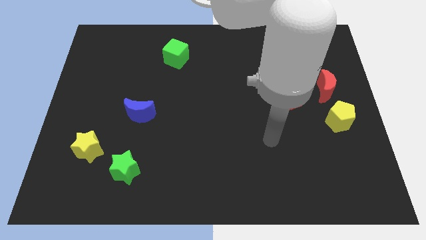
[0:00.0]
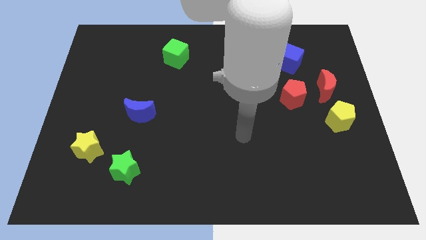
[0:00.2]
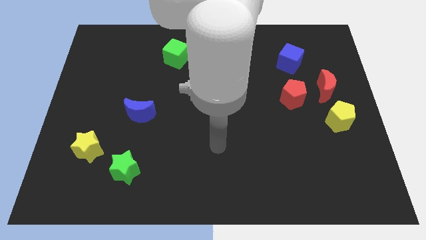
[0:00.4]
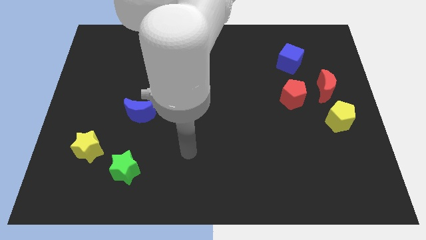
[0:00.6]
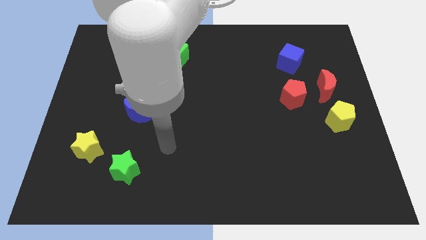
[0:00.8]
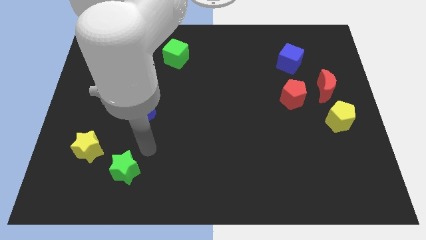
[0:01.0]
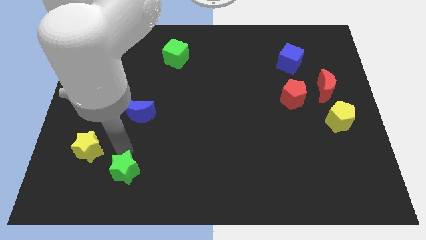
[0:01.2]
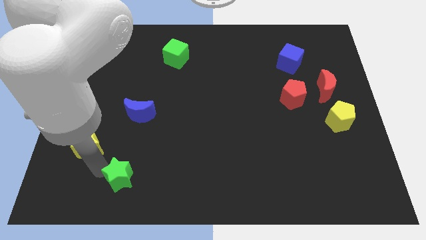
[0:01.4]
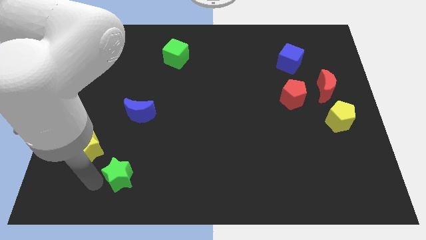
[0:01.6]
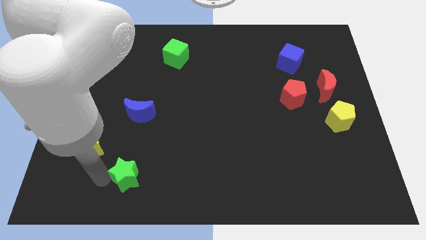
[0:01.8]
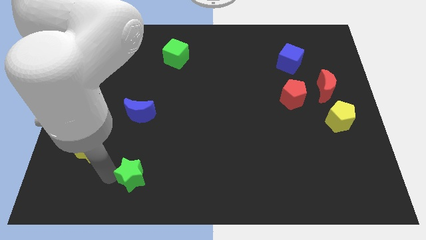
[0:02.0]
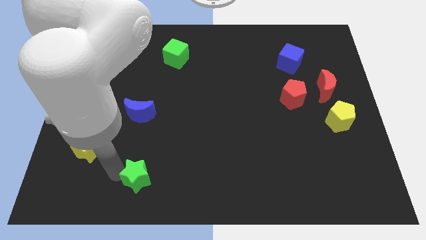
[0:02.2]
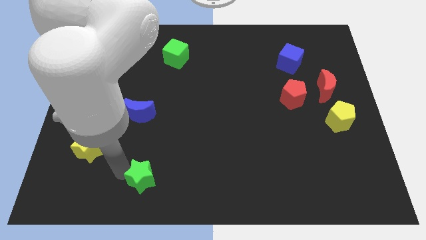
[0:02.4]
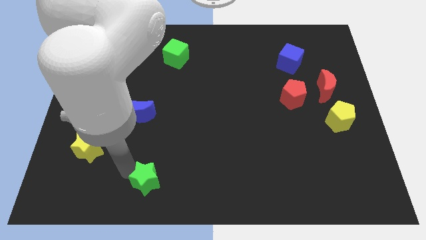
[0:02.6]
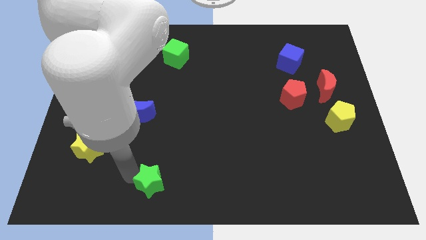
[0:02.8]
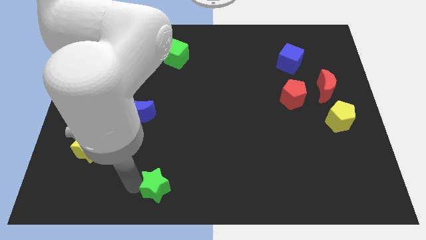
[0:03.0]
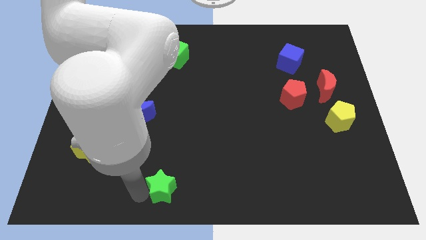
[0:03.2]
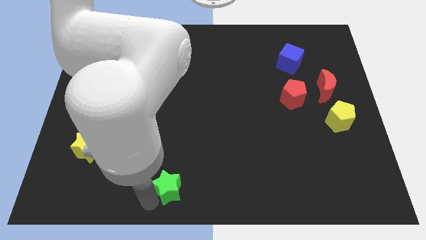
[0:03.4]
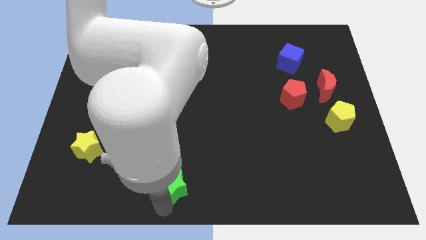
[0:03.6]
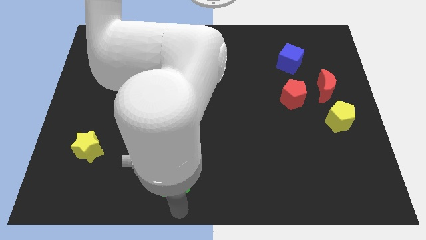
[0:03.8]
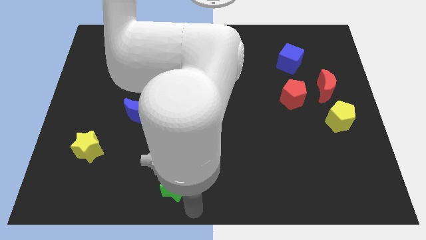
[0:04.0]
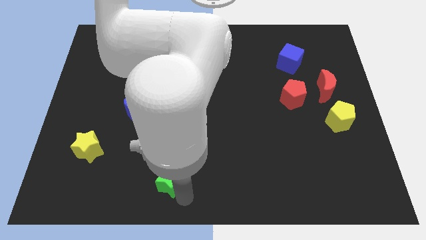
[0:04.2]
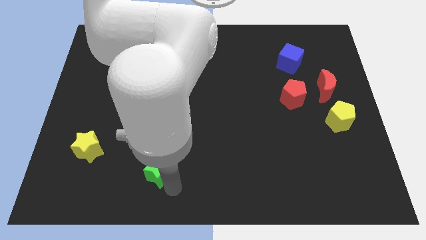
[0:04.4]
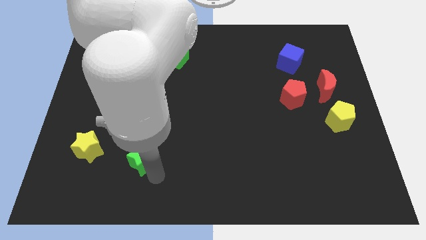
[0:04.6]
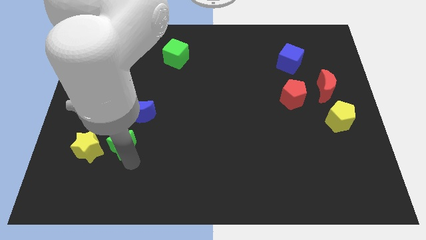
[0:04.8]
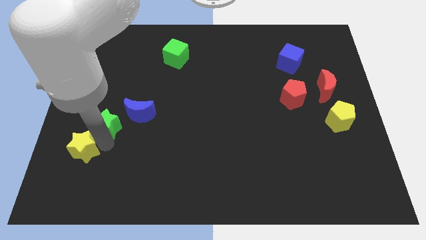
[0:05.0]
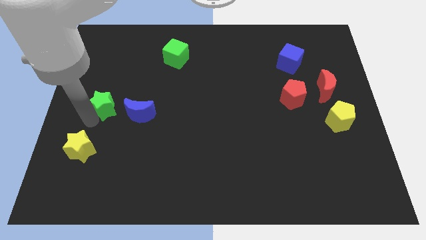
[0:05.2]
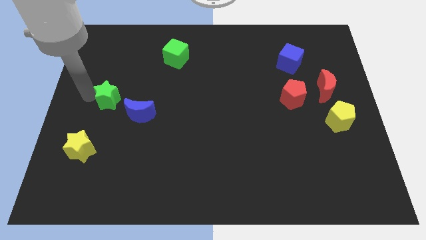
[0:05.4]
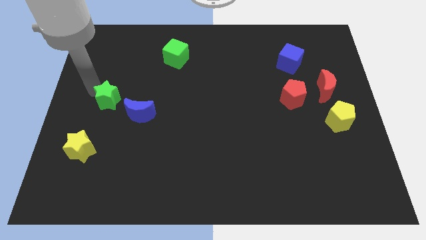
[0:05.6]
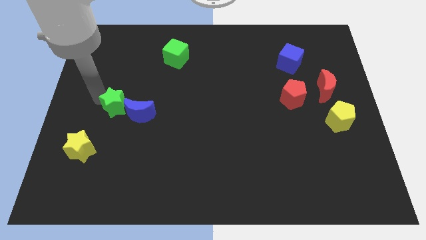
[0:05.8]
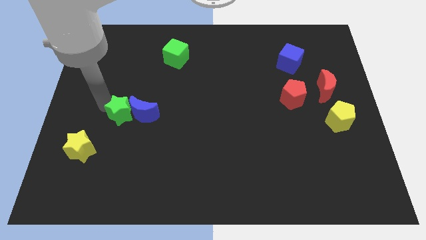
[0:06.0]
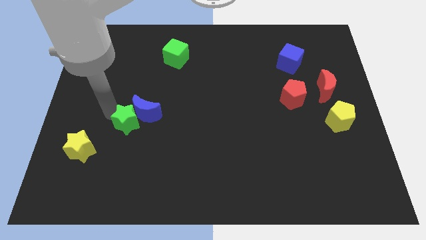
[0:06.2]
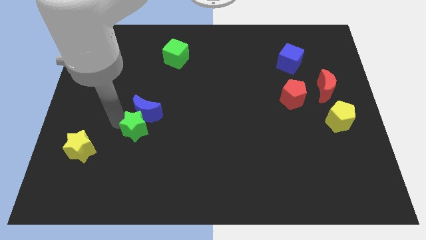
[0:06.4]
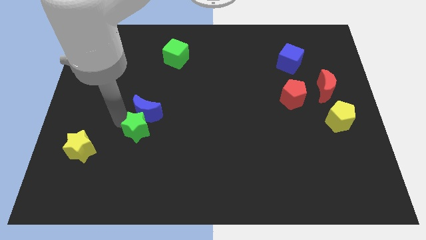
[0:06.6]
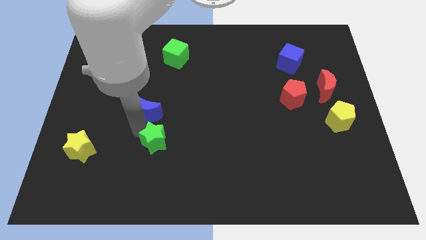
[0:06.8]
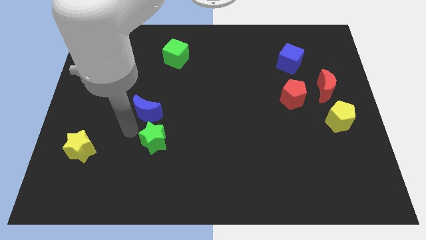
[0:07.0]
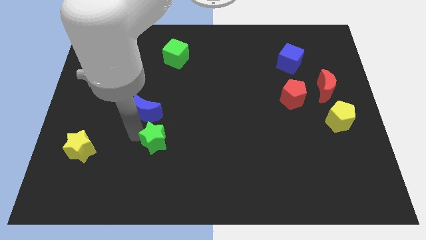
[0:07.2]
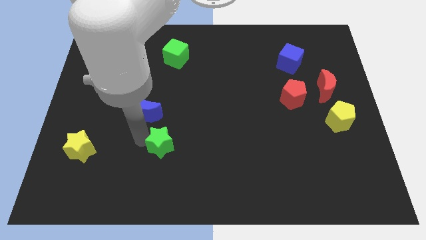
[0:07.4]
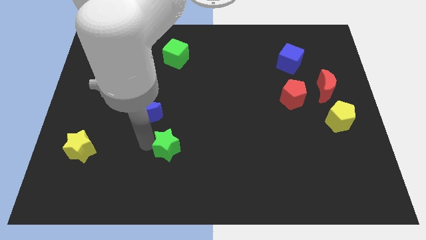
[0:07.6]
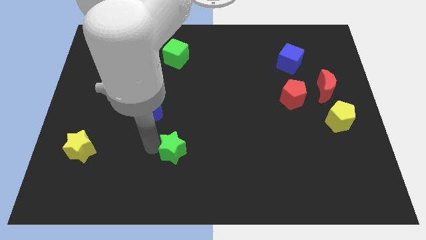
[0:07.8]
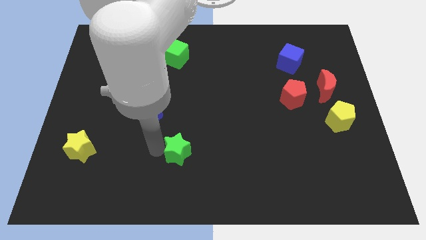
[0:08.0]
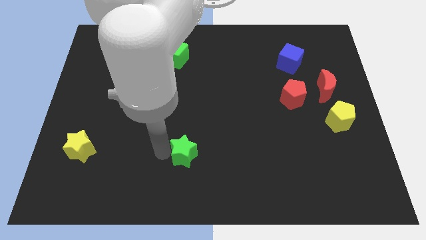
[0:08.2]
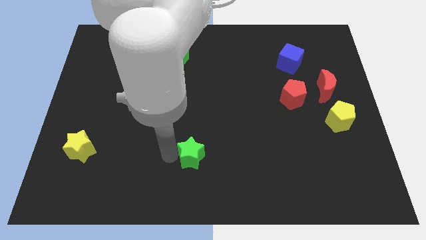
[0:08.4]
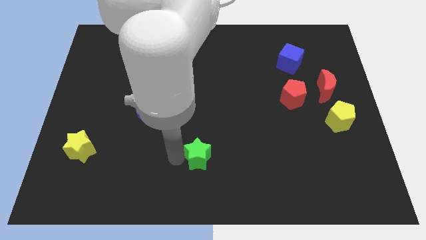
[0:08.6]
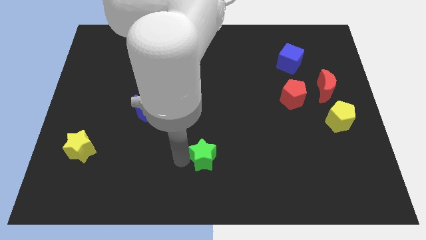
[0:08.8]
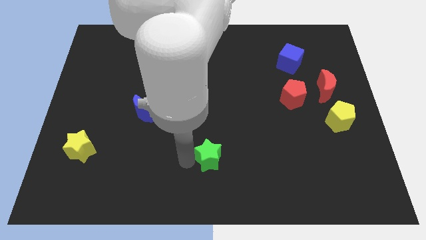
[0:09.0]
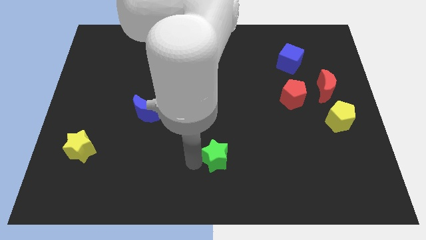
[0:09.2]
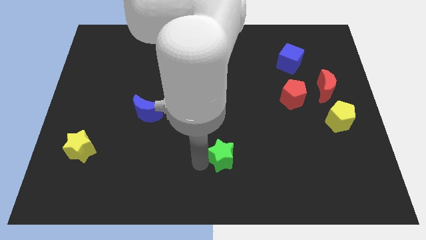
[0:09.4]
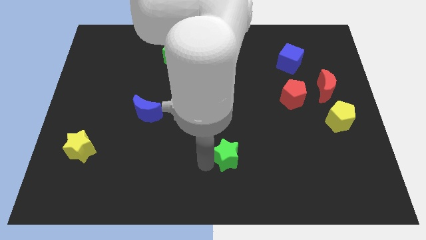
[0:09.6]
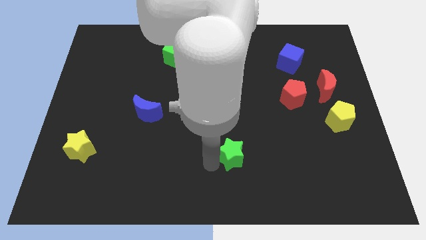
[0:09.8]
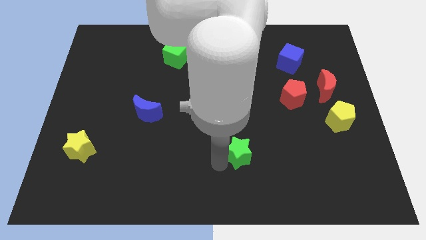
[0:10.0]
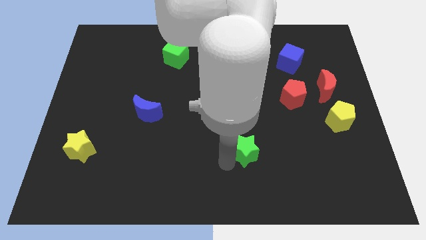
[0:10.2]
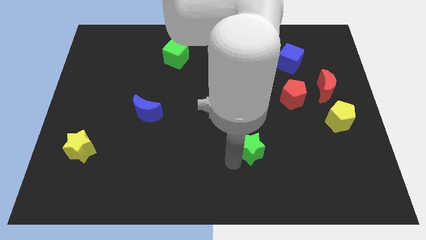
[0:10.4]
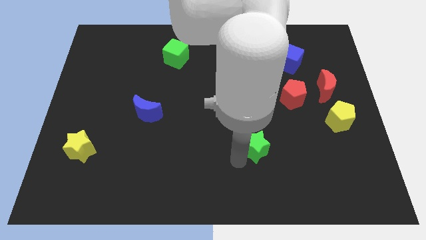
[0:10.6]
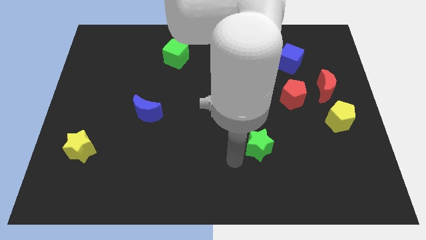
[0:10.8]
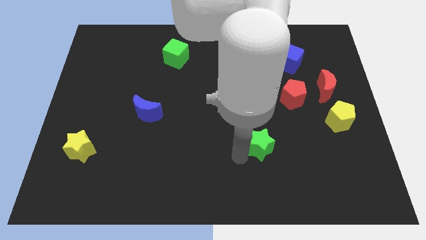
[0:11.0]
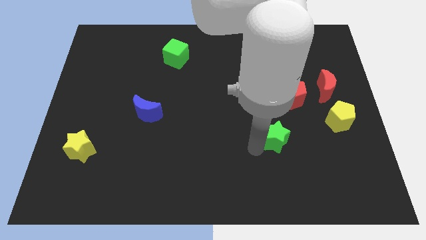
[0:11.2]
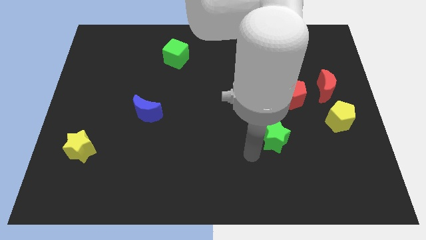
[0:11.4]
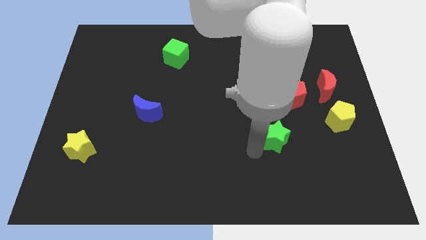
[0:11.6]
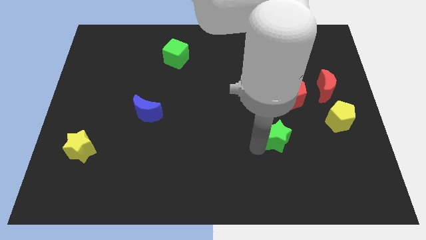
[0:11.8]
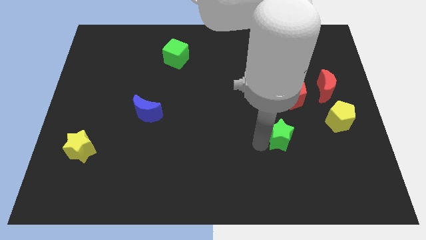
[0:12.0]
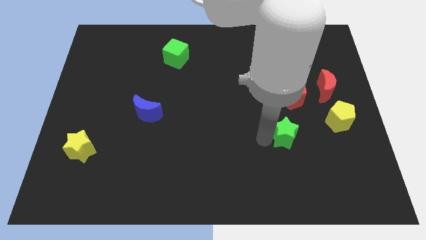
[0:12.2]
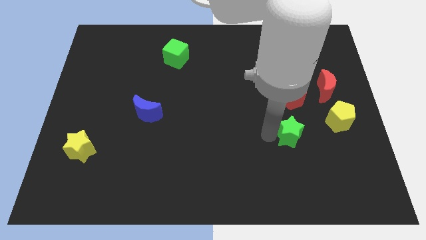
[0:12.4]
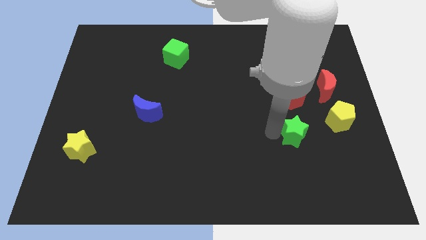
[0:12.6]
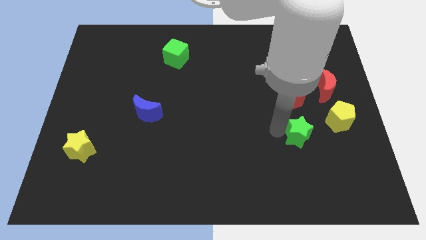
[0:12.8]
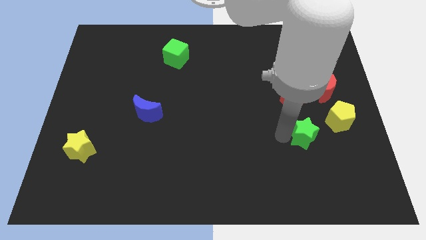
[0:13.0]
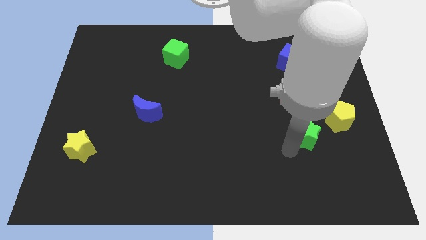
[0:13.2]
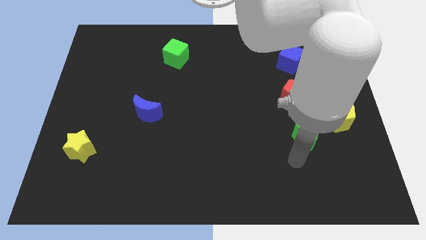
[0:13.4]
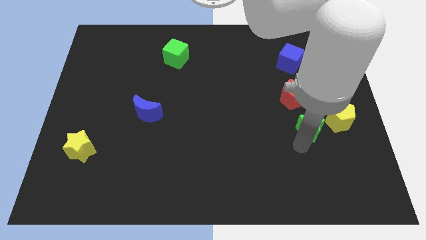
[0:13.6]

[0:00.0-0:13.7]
move the green star to the bottom right side of the red pentagon

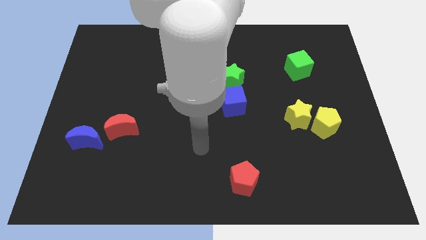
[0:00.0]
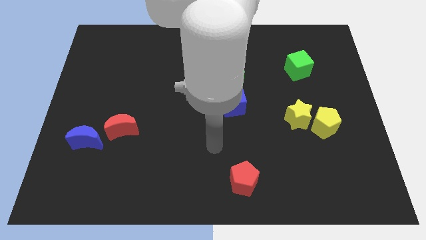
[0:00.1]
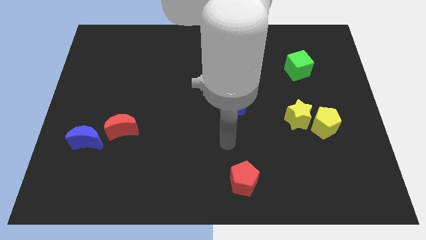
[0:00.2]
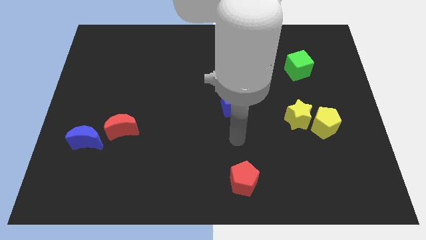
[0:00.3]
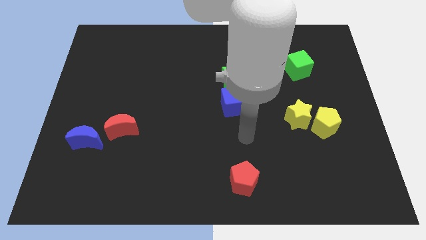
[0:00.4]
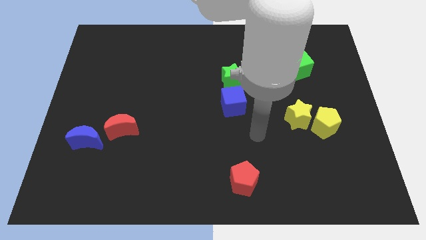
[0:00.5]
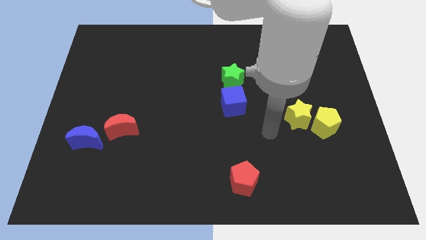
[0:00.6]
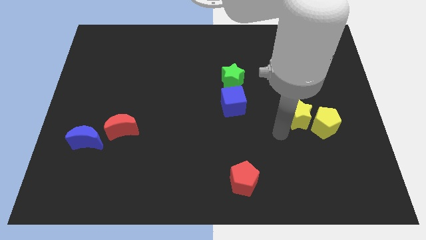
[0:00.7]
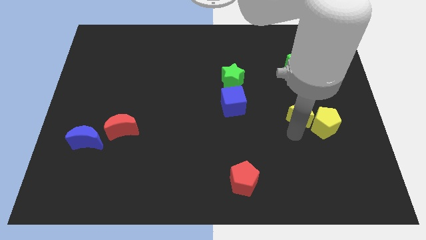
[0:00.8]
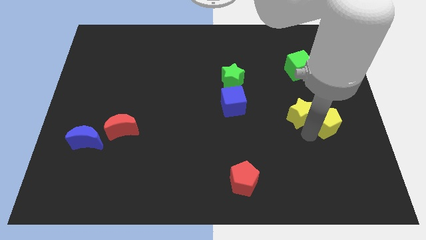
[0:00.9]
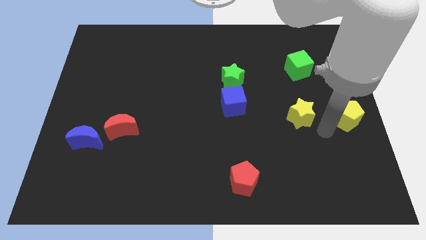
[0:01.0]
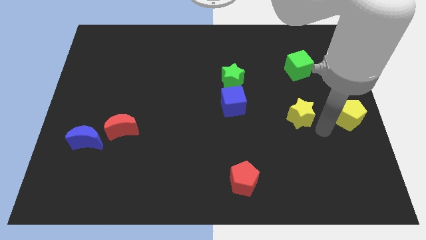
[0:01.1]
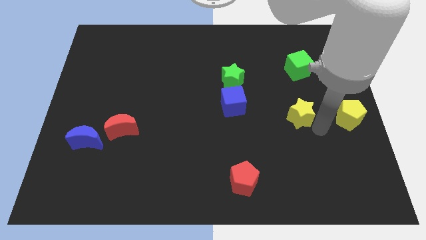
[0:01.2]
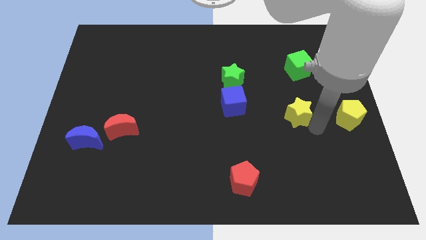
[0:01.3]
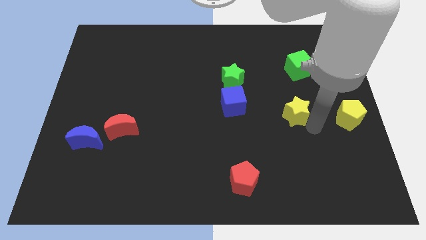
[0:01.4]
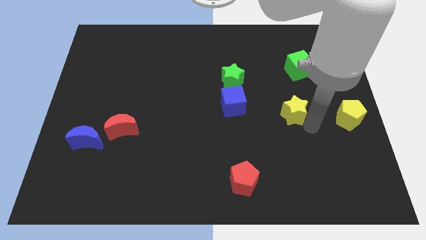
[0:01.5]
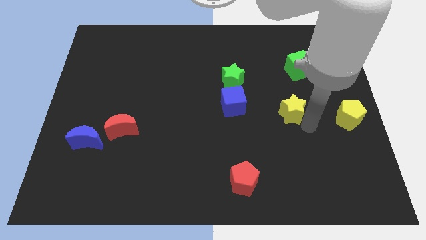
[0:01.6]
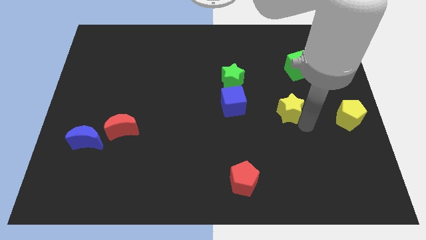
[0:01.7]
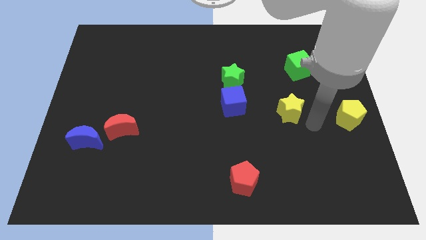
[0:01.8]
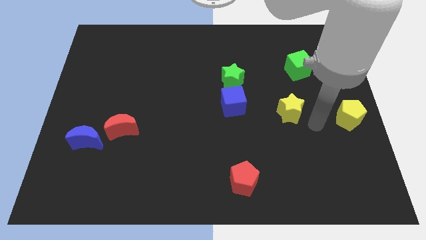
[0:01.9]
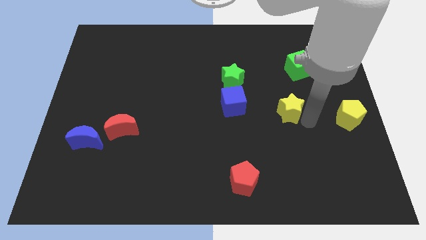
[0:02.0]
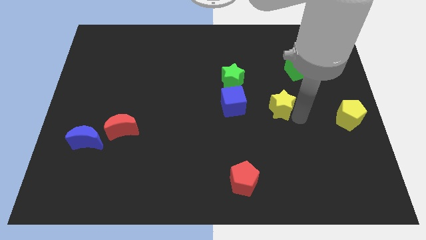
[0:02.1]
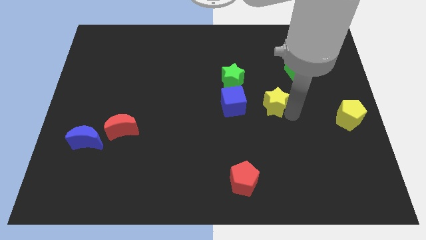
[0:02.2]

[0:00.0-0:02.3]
slide the yellow star diagonally down and to the right of the green star
